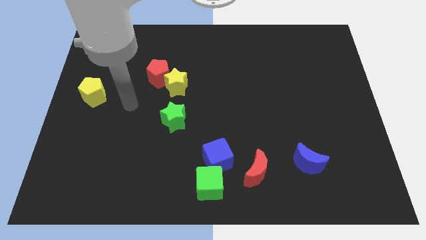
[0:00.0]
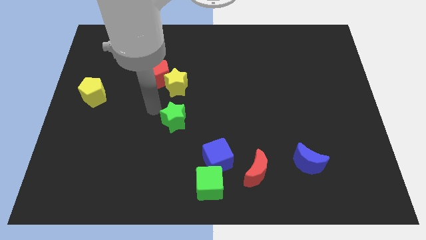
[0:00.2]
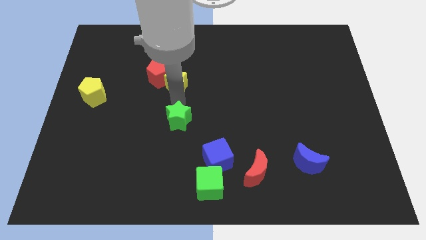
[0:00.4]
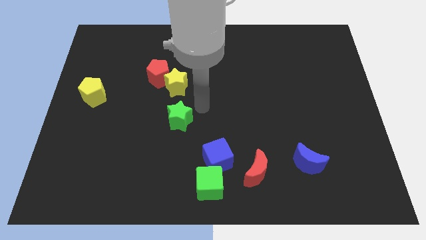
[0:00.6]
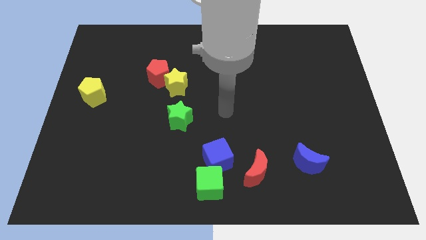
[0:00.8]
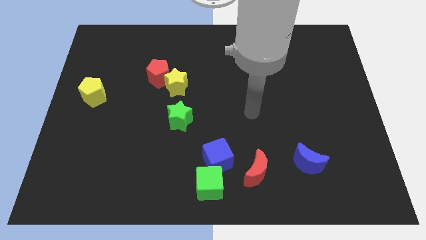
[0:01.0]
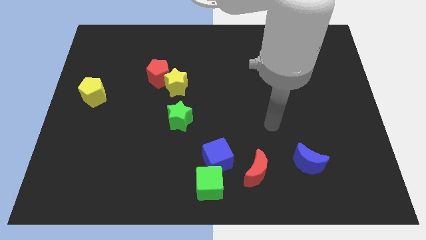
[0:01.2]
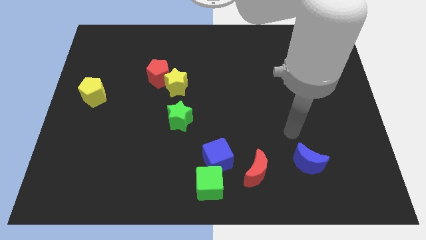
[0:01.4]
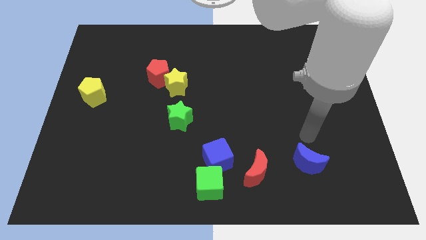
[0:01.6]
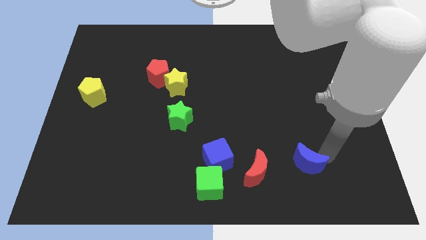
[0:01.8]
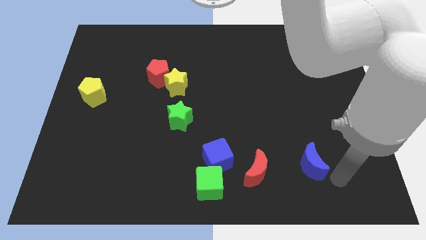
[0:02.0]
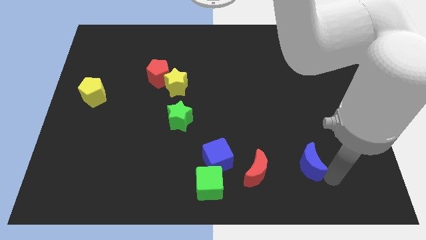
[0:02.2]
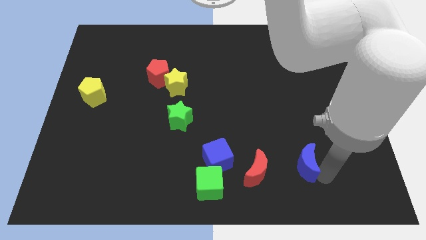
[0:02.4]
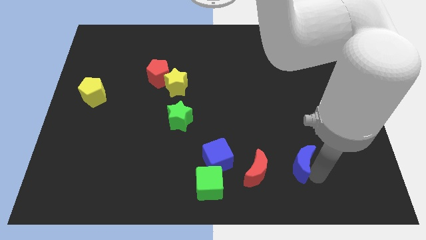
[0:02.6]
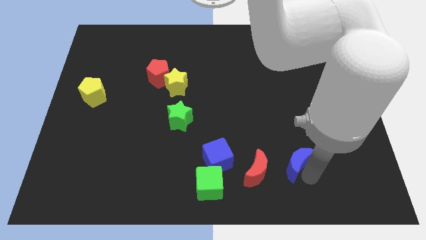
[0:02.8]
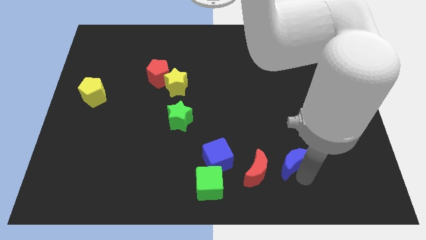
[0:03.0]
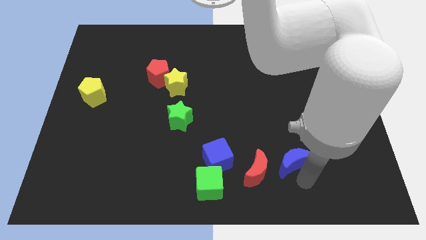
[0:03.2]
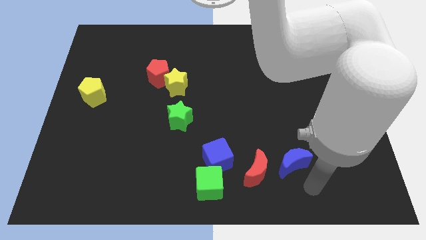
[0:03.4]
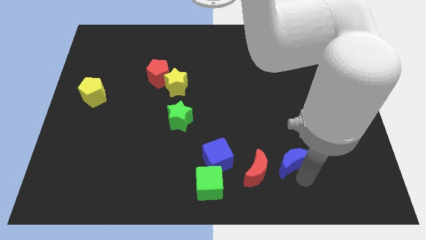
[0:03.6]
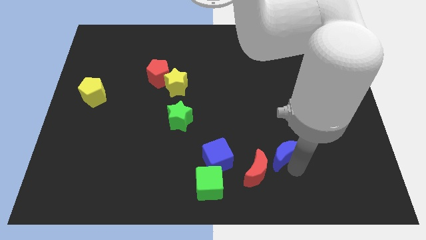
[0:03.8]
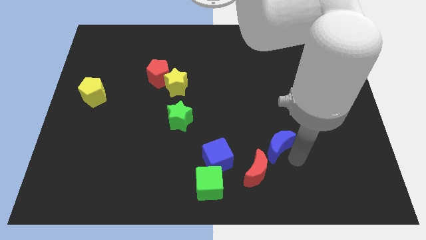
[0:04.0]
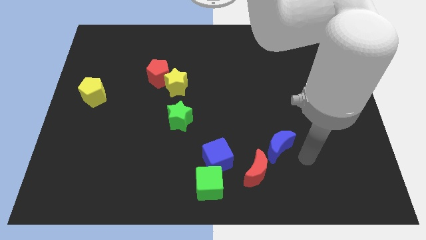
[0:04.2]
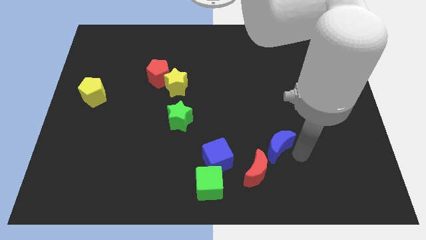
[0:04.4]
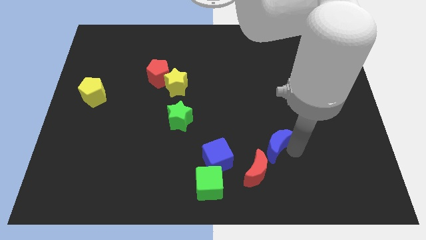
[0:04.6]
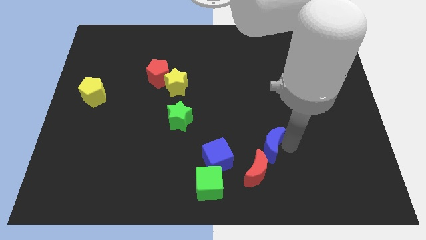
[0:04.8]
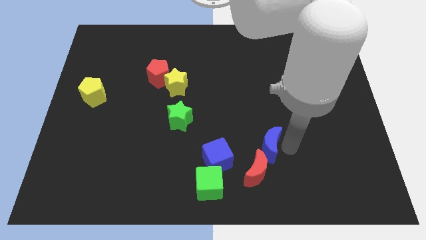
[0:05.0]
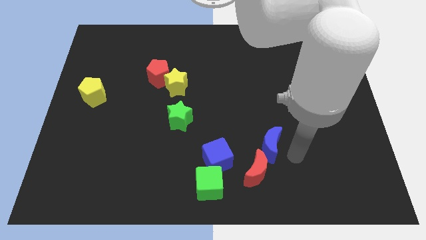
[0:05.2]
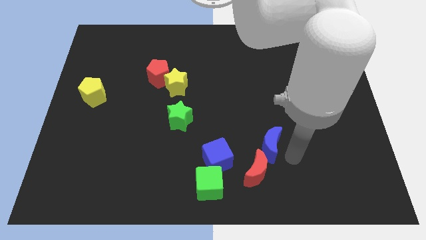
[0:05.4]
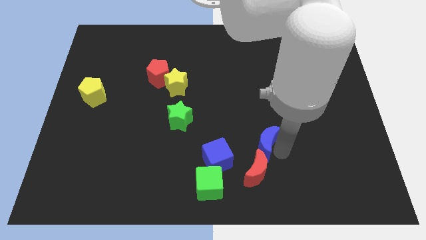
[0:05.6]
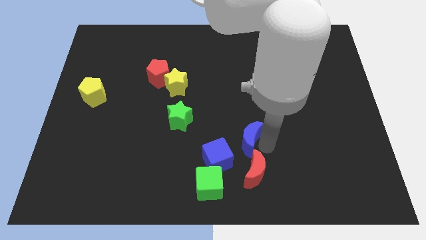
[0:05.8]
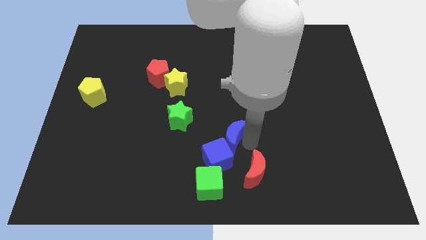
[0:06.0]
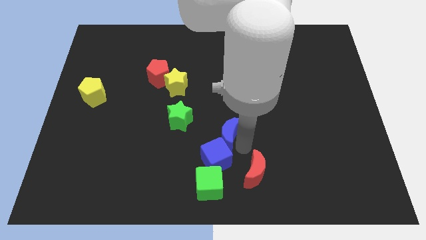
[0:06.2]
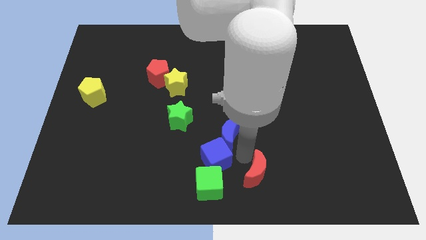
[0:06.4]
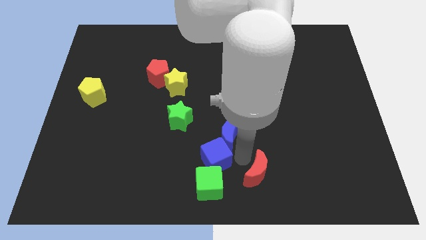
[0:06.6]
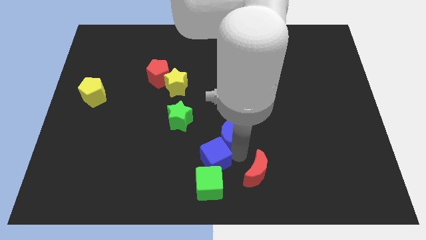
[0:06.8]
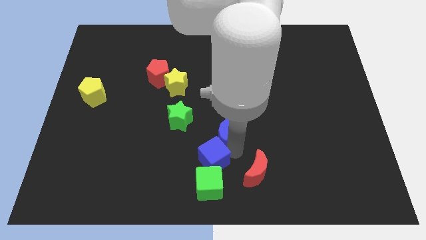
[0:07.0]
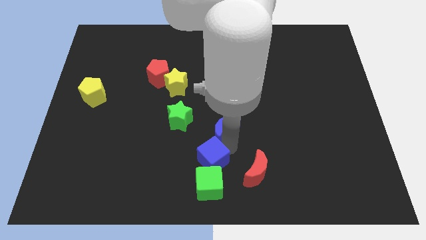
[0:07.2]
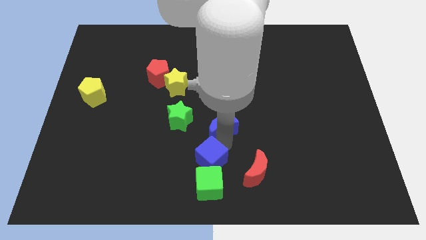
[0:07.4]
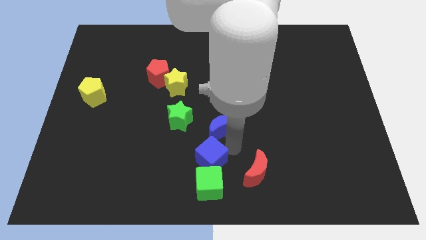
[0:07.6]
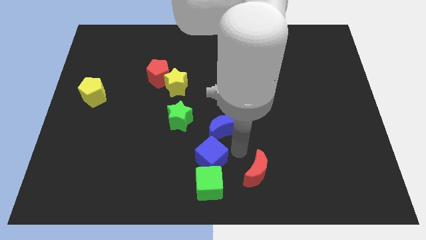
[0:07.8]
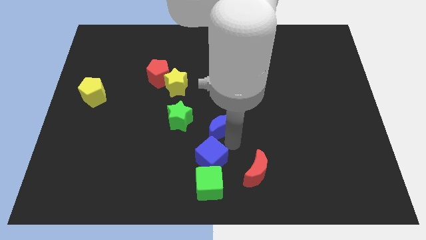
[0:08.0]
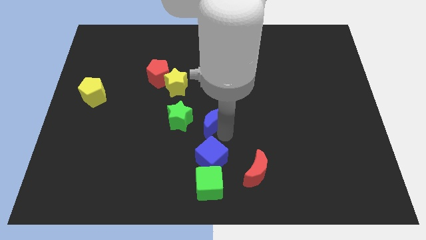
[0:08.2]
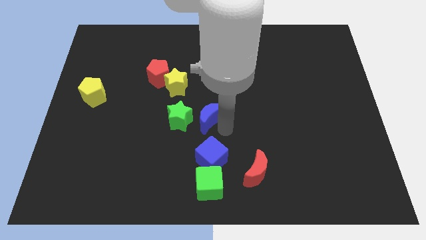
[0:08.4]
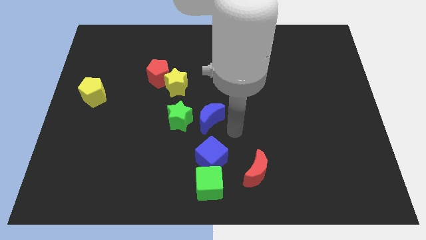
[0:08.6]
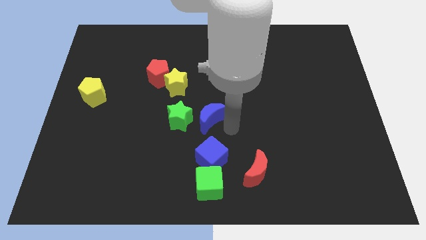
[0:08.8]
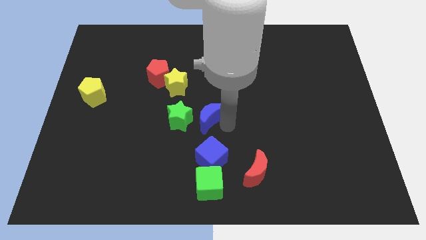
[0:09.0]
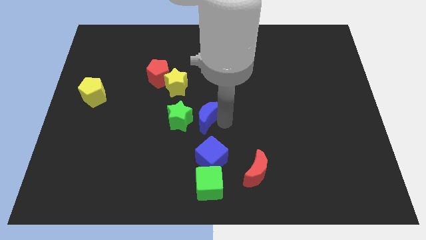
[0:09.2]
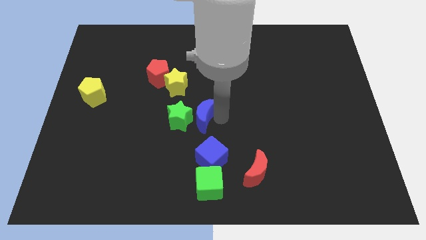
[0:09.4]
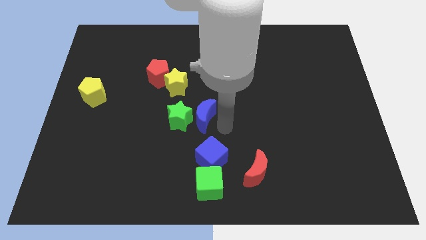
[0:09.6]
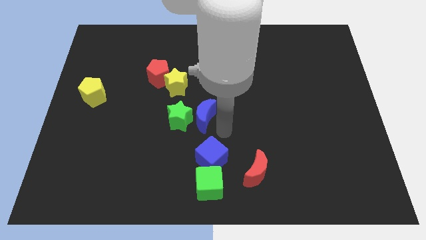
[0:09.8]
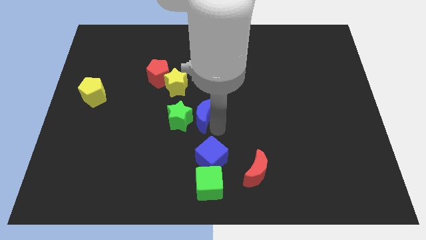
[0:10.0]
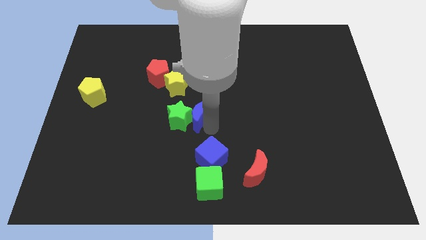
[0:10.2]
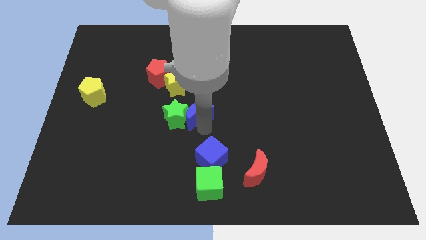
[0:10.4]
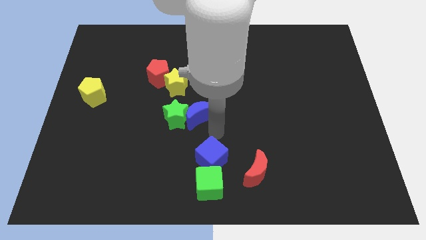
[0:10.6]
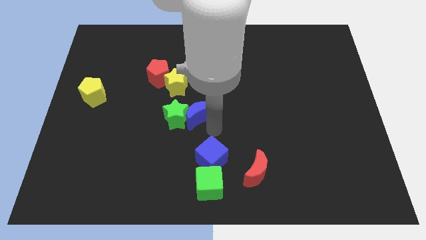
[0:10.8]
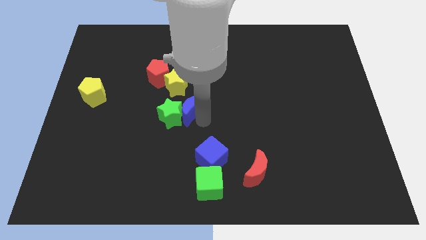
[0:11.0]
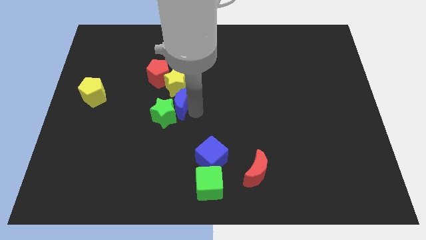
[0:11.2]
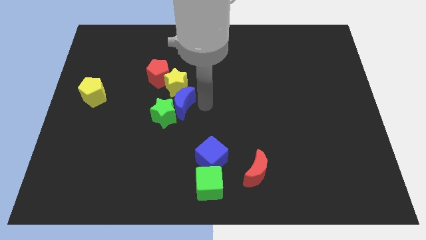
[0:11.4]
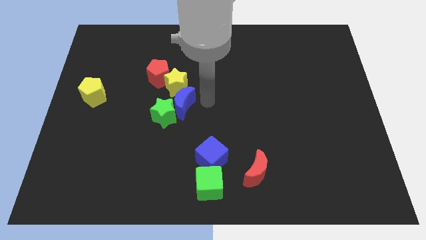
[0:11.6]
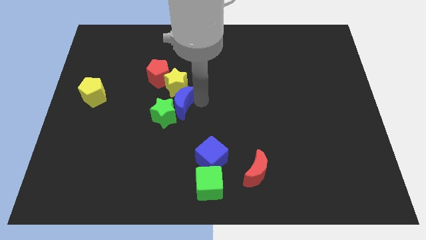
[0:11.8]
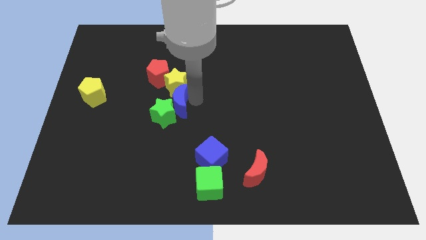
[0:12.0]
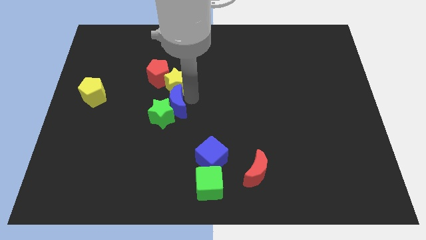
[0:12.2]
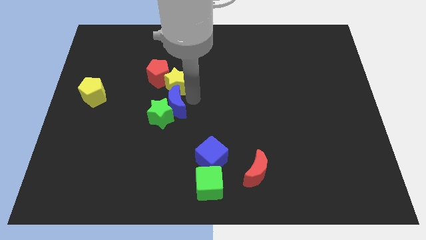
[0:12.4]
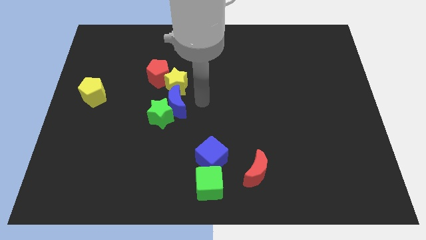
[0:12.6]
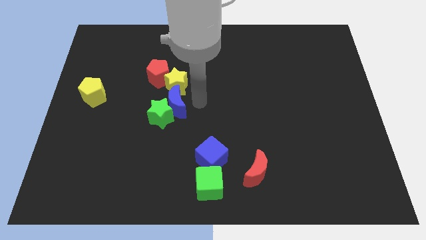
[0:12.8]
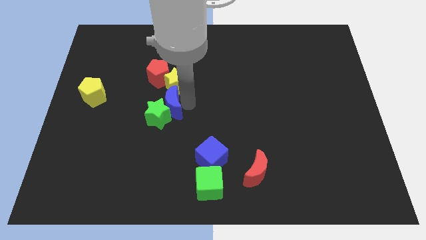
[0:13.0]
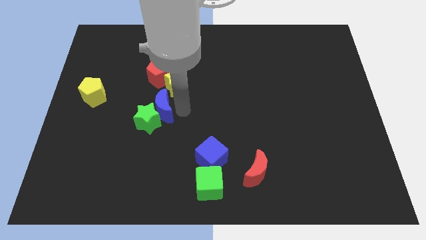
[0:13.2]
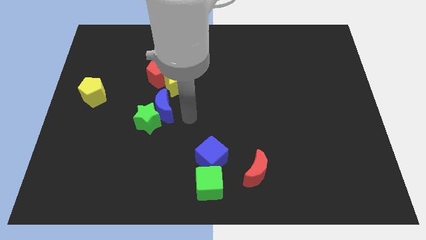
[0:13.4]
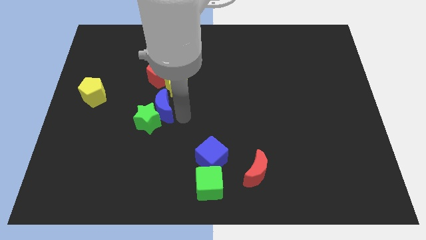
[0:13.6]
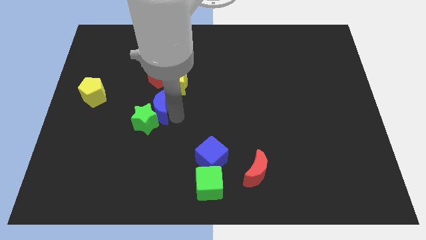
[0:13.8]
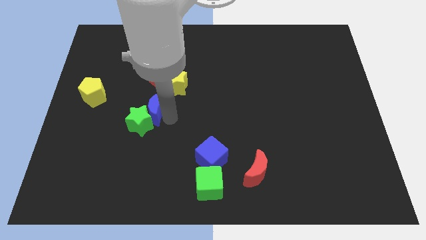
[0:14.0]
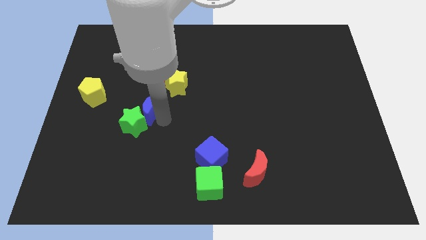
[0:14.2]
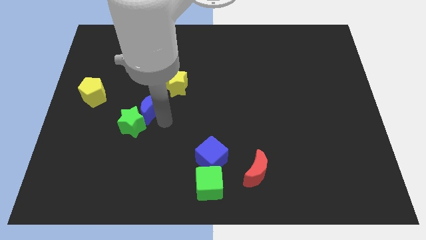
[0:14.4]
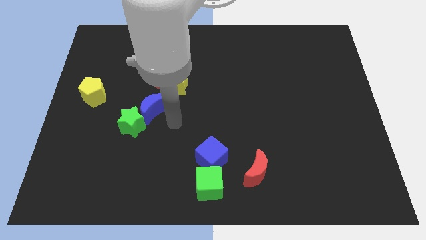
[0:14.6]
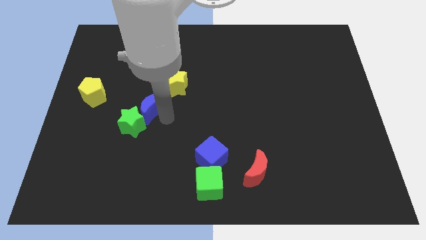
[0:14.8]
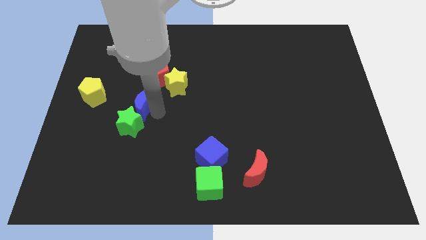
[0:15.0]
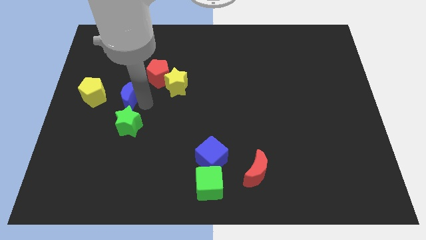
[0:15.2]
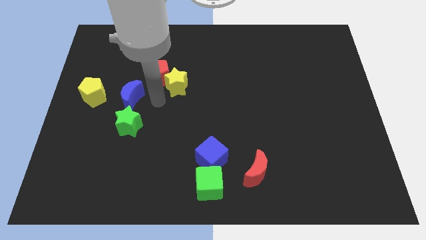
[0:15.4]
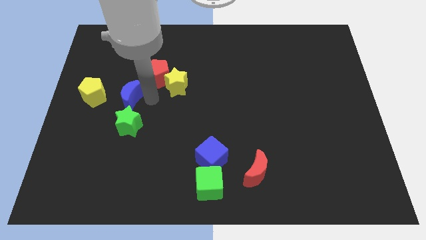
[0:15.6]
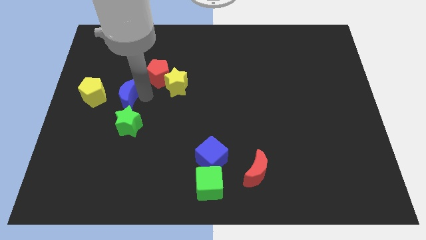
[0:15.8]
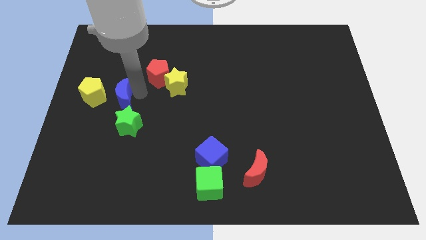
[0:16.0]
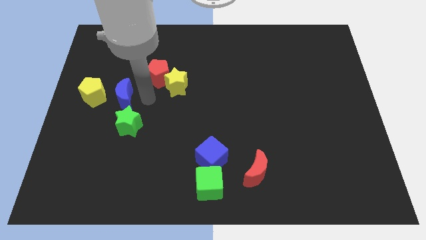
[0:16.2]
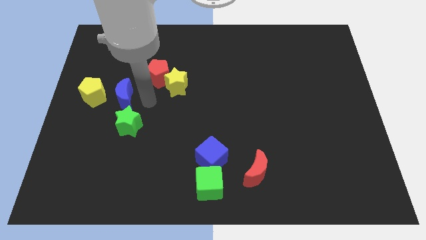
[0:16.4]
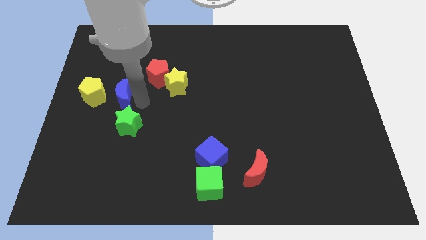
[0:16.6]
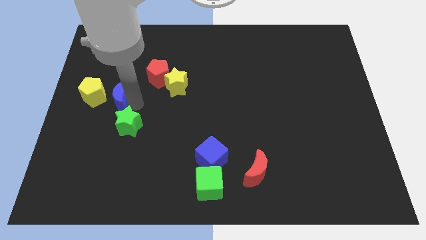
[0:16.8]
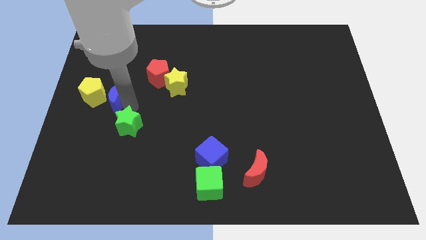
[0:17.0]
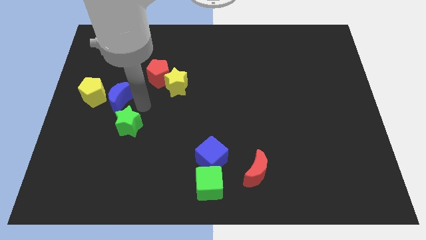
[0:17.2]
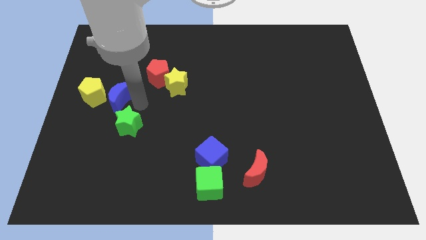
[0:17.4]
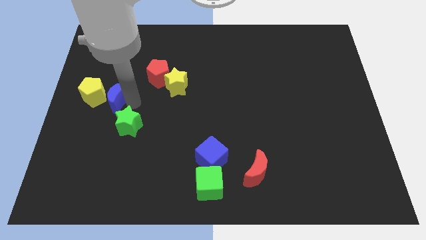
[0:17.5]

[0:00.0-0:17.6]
put the blue moon towards the yellow pentagon
